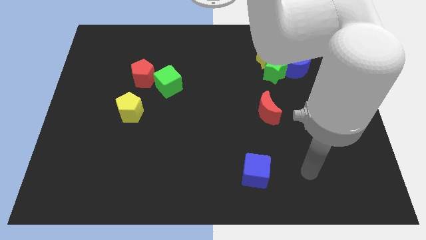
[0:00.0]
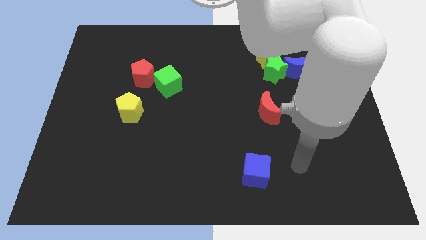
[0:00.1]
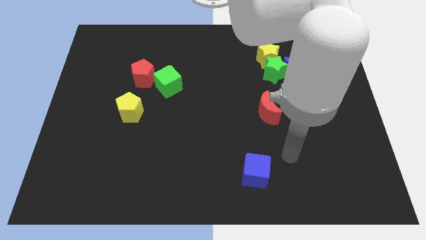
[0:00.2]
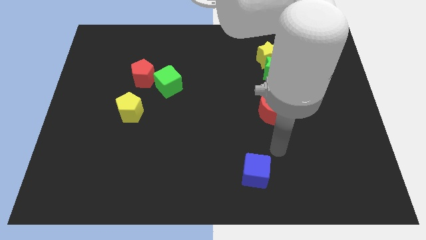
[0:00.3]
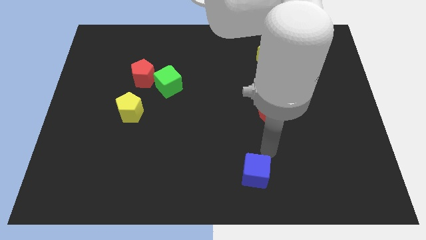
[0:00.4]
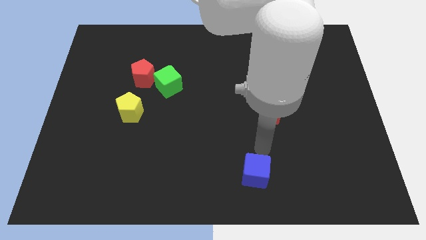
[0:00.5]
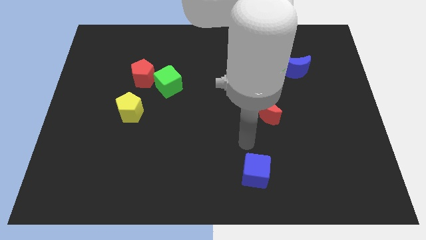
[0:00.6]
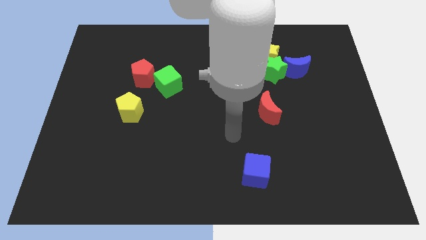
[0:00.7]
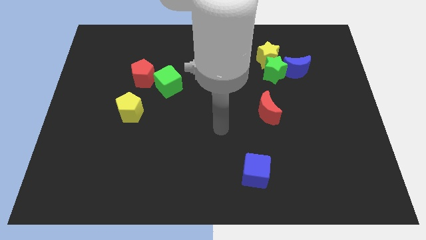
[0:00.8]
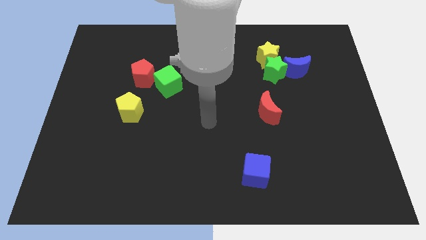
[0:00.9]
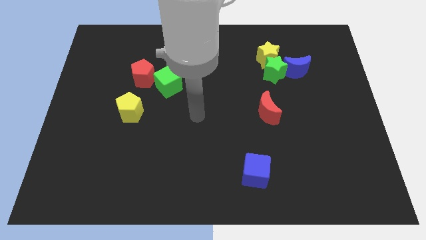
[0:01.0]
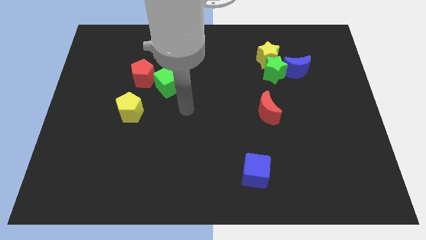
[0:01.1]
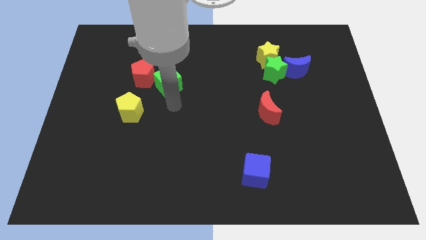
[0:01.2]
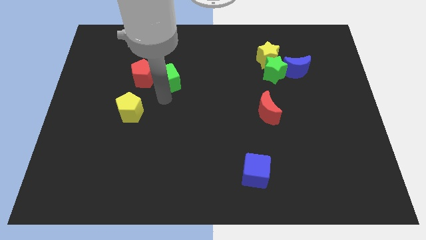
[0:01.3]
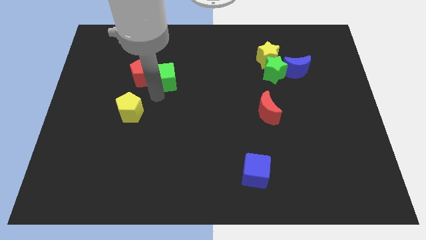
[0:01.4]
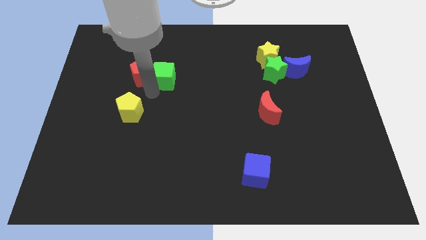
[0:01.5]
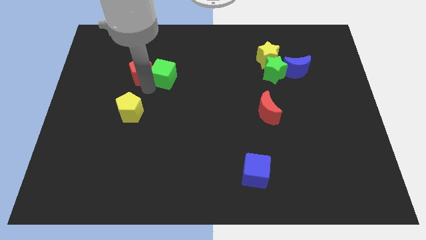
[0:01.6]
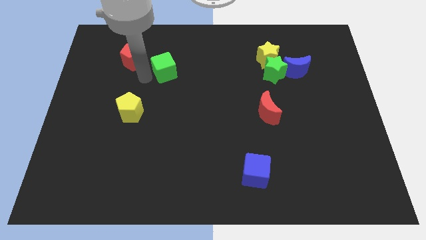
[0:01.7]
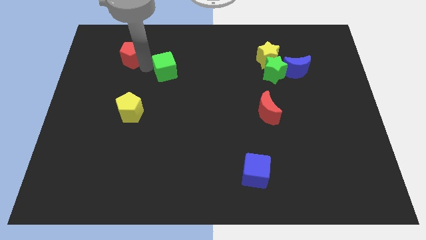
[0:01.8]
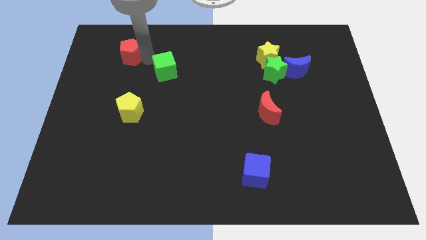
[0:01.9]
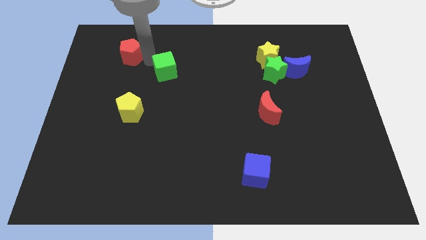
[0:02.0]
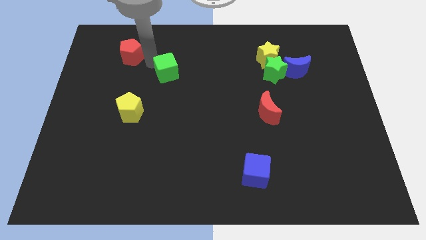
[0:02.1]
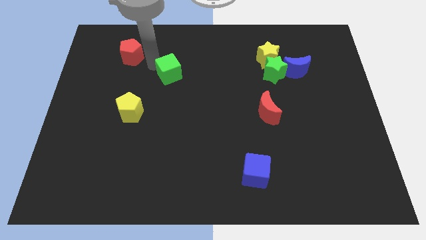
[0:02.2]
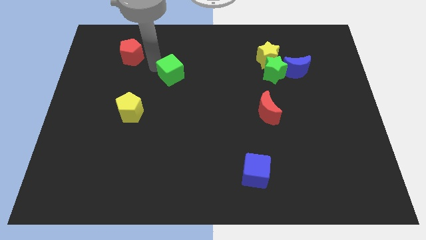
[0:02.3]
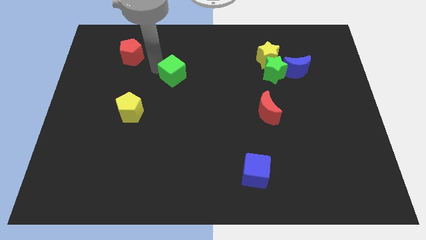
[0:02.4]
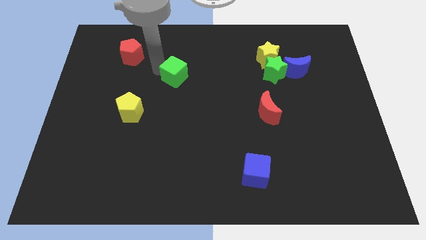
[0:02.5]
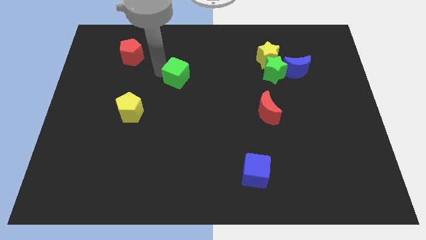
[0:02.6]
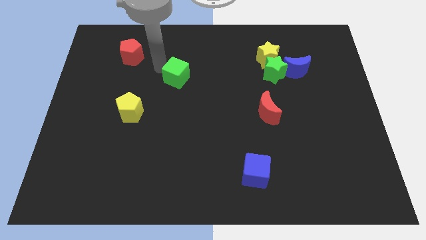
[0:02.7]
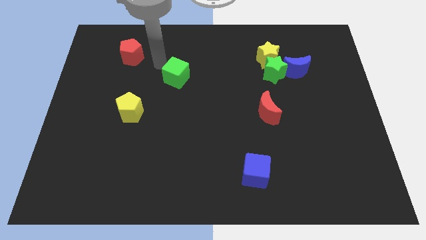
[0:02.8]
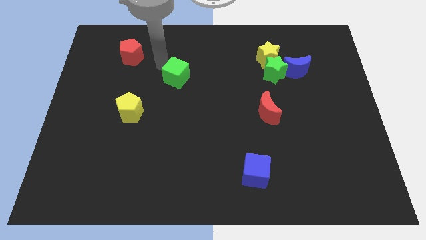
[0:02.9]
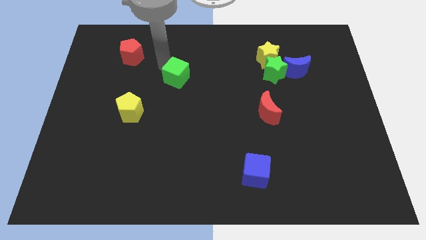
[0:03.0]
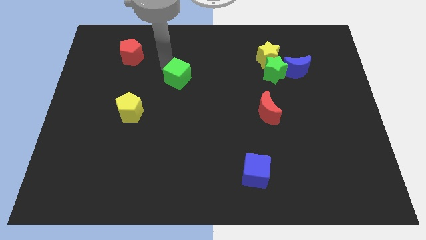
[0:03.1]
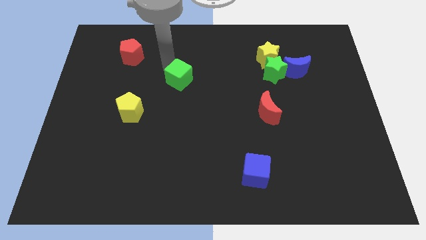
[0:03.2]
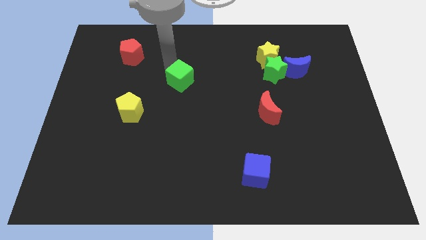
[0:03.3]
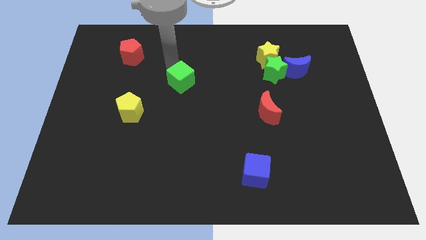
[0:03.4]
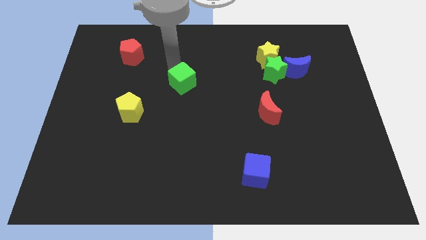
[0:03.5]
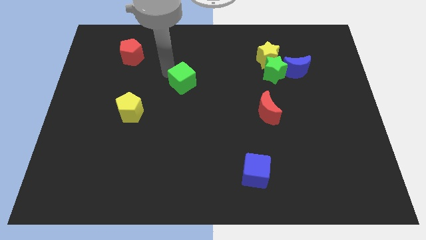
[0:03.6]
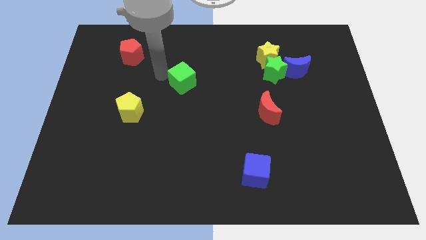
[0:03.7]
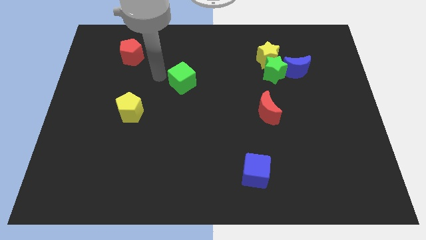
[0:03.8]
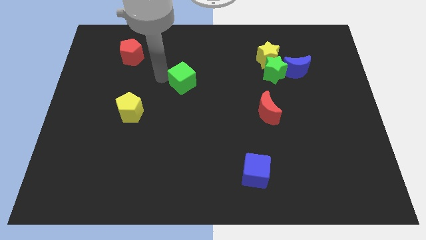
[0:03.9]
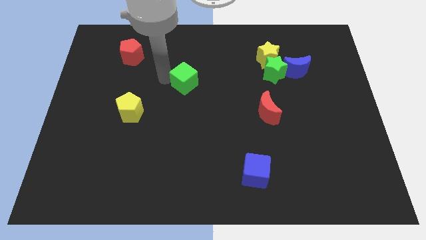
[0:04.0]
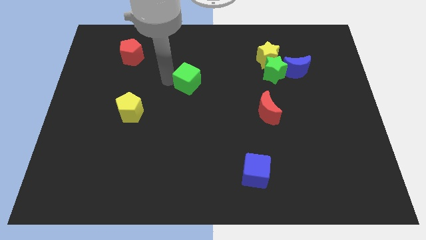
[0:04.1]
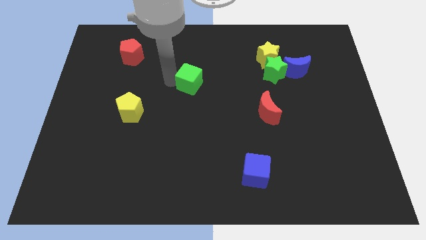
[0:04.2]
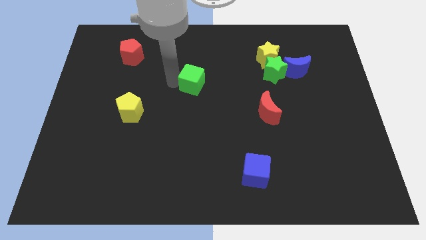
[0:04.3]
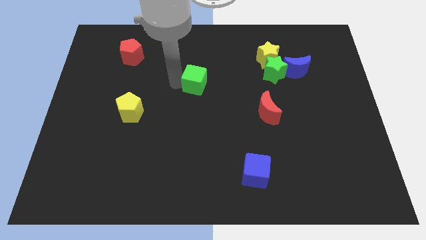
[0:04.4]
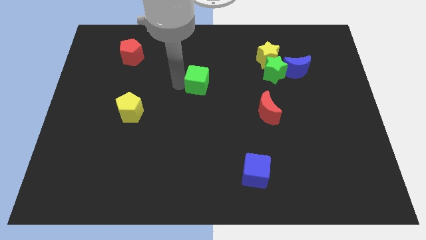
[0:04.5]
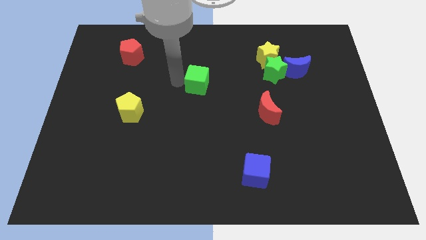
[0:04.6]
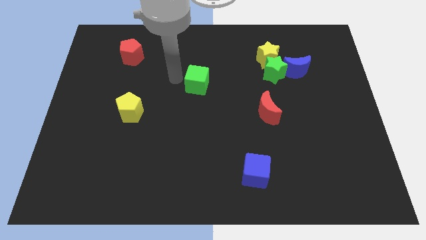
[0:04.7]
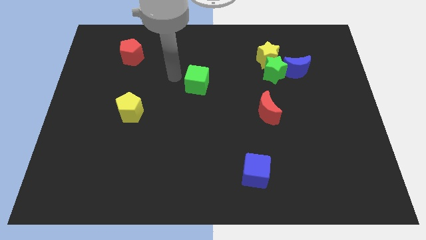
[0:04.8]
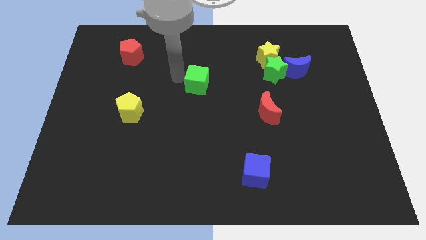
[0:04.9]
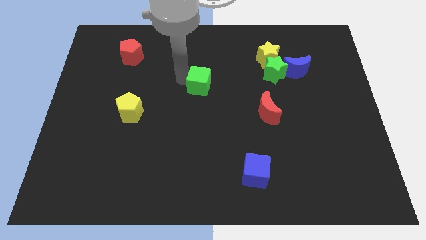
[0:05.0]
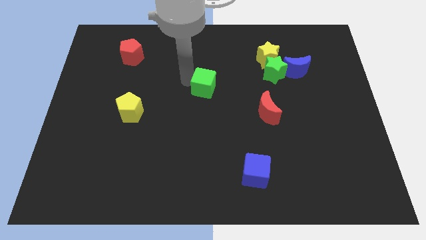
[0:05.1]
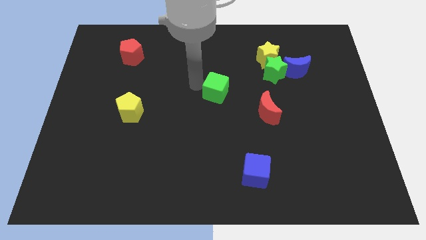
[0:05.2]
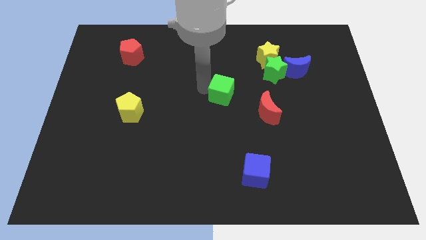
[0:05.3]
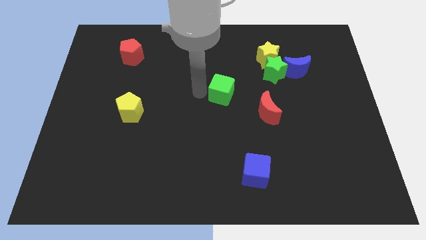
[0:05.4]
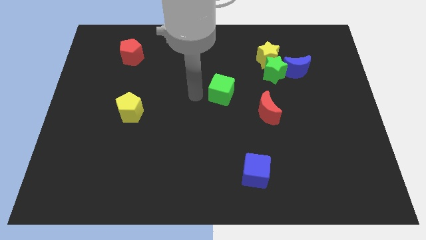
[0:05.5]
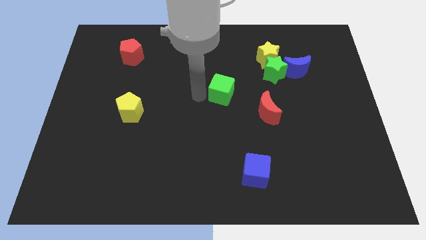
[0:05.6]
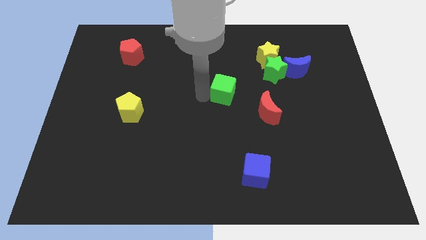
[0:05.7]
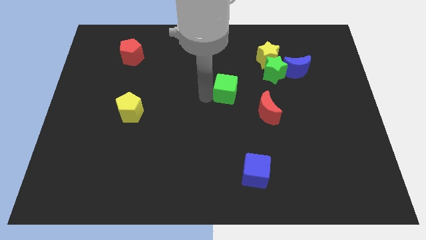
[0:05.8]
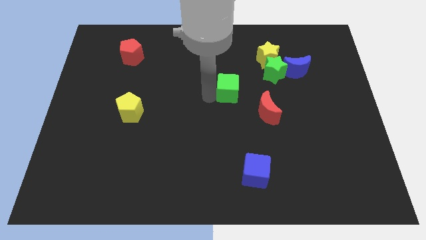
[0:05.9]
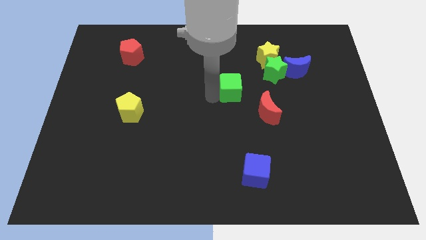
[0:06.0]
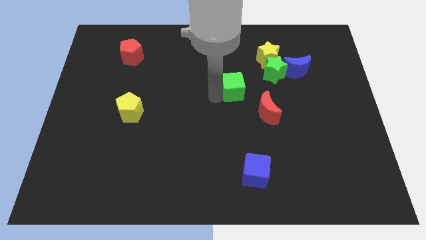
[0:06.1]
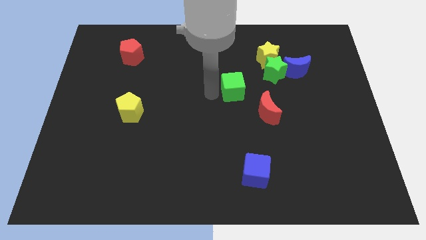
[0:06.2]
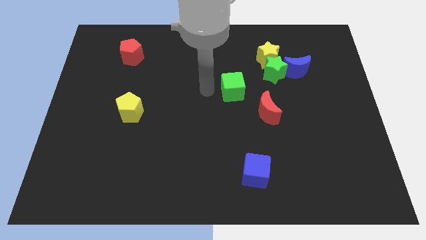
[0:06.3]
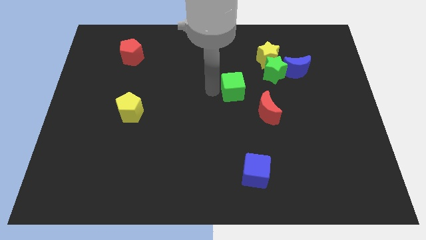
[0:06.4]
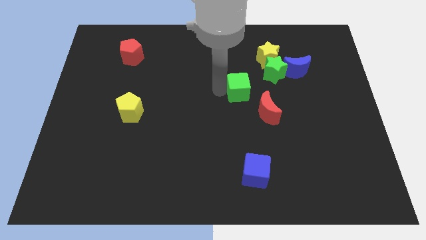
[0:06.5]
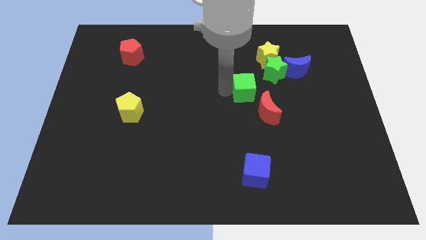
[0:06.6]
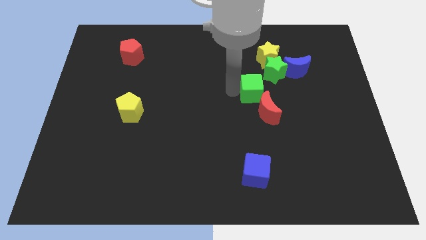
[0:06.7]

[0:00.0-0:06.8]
slide the green cube right

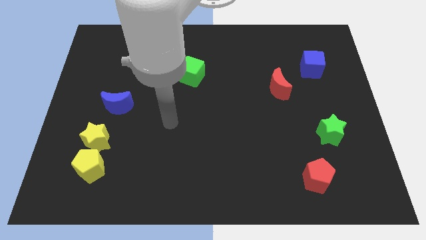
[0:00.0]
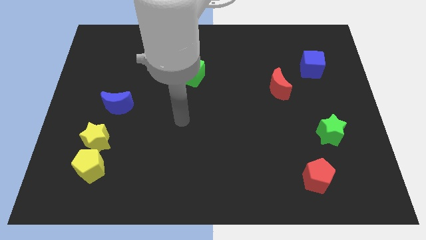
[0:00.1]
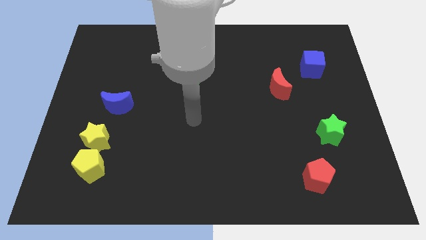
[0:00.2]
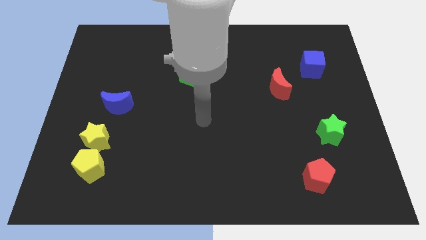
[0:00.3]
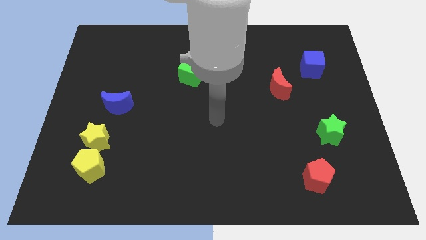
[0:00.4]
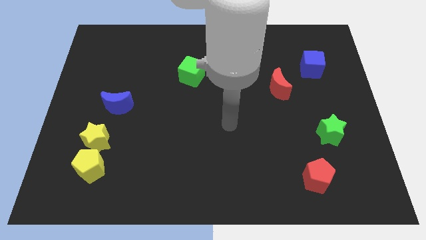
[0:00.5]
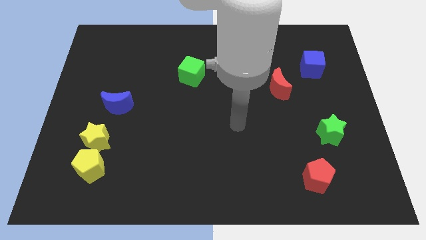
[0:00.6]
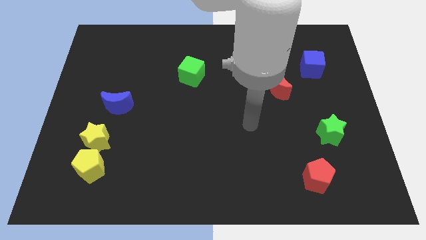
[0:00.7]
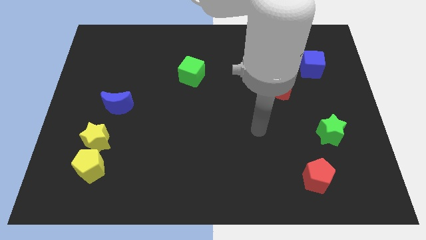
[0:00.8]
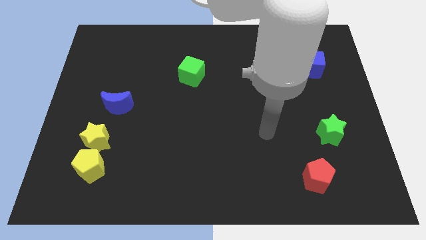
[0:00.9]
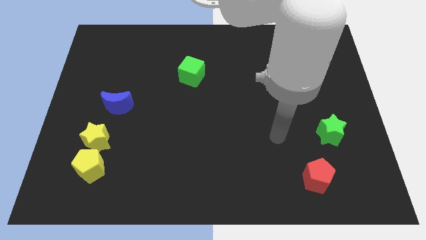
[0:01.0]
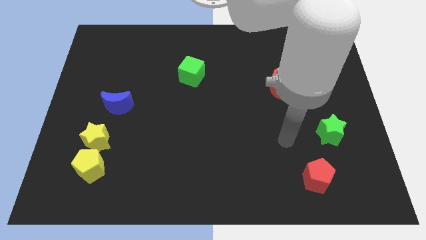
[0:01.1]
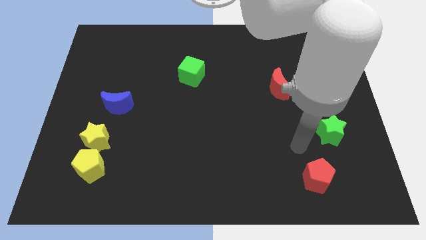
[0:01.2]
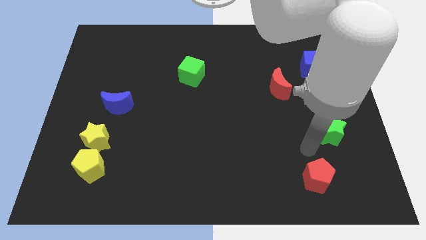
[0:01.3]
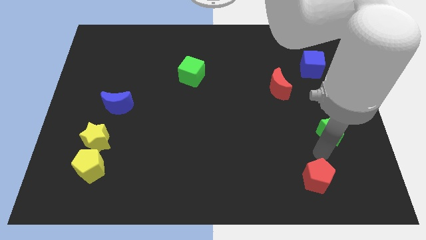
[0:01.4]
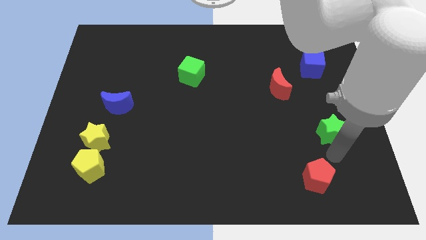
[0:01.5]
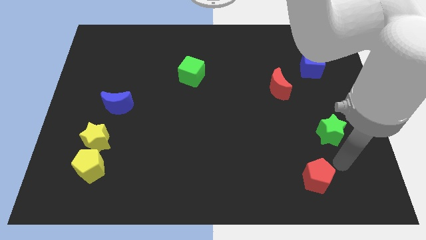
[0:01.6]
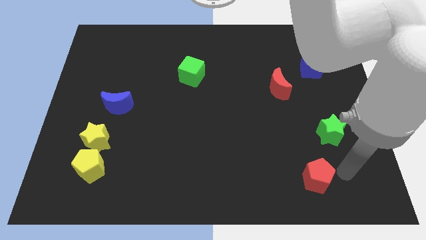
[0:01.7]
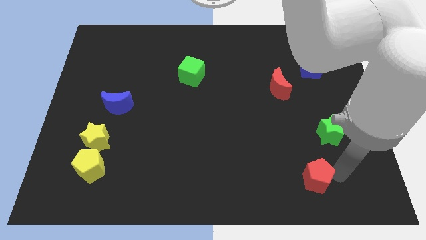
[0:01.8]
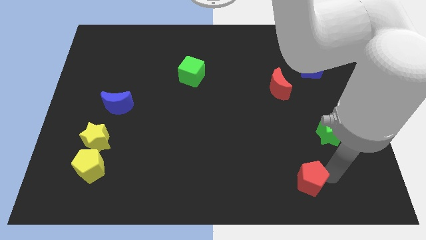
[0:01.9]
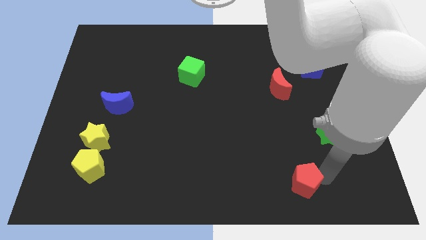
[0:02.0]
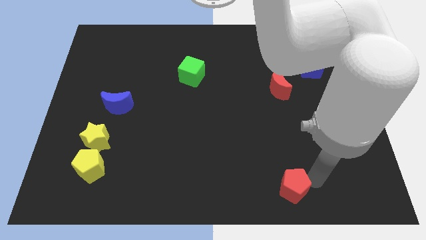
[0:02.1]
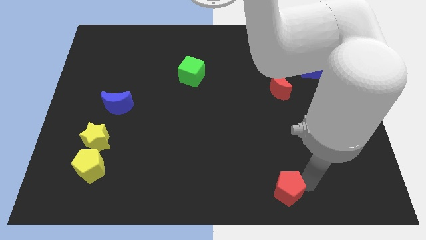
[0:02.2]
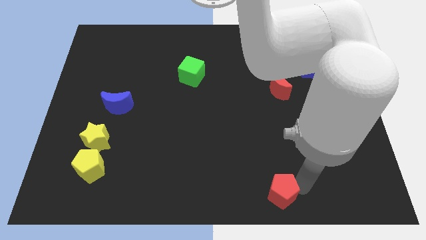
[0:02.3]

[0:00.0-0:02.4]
push the red pentagon left somewhat
